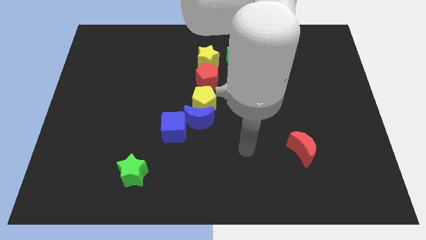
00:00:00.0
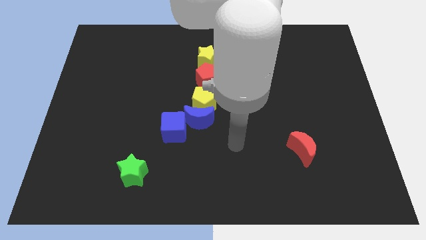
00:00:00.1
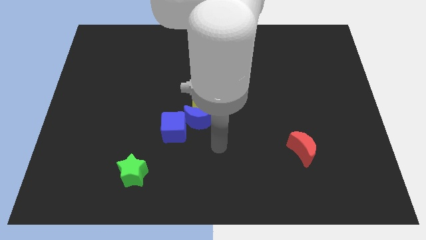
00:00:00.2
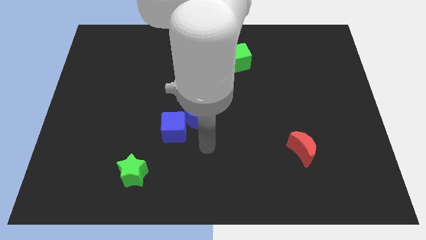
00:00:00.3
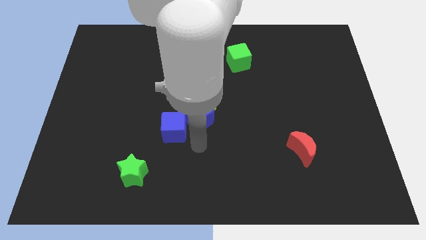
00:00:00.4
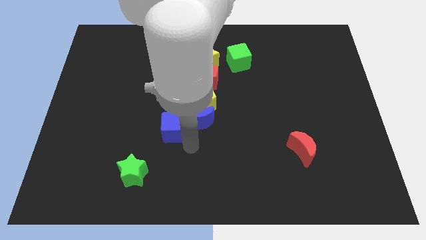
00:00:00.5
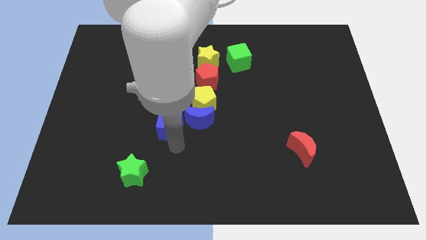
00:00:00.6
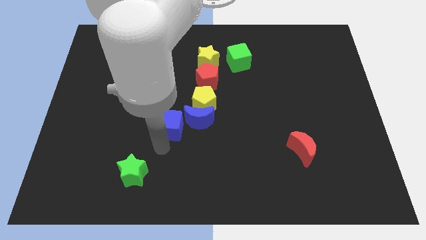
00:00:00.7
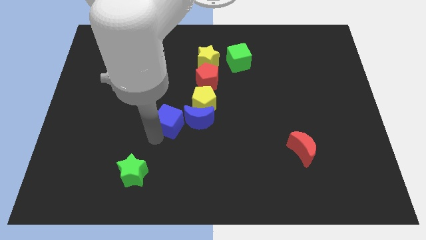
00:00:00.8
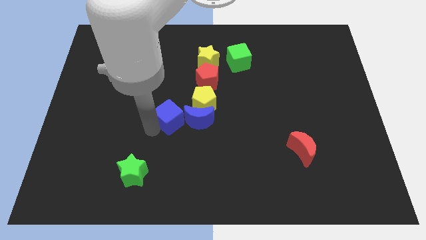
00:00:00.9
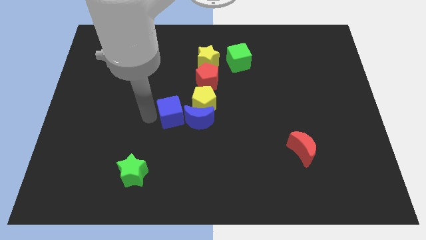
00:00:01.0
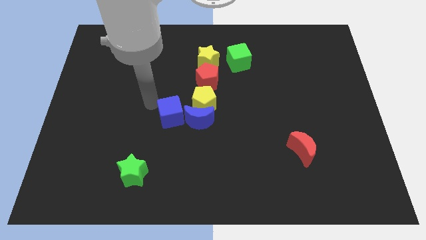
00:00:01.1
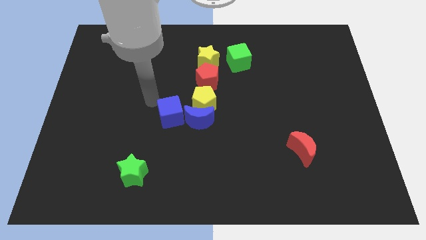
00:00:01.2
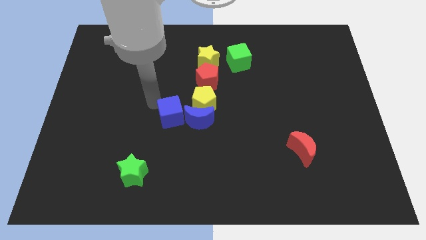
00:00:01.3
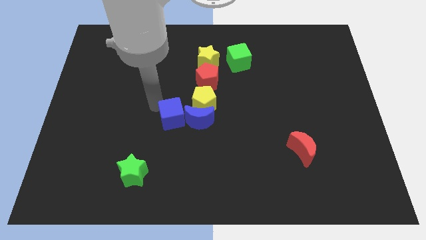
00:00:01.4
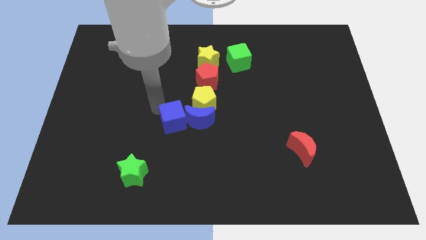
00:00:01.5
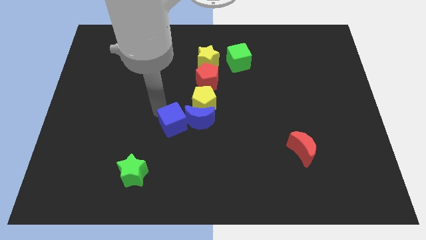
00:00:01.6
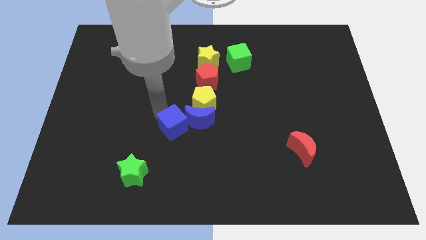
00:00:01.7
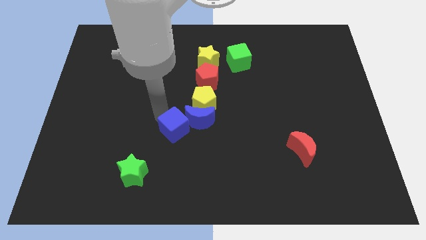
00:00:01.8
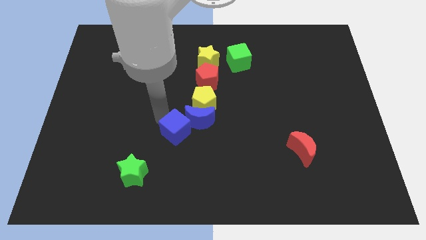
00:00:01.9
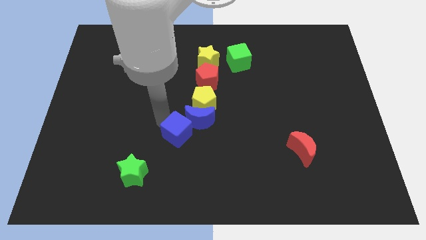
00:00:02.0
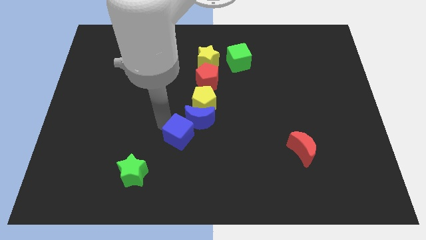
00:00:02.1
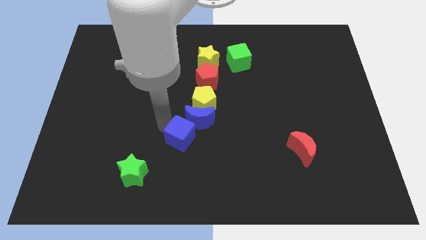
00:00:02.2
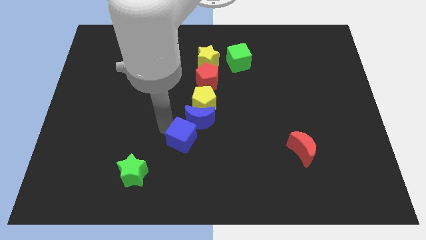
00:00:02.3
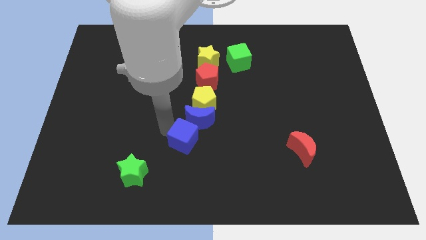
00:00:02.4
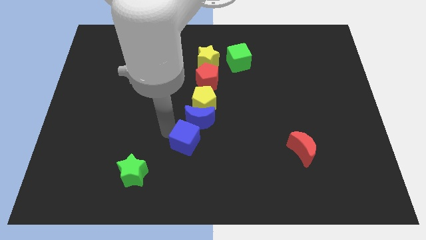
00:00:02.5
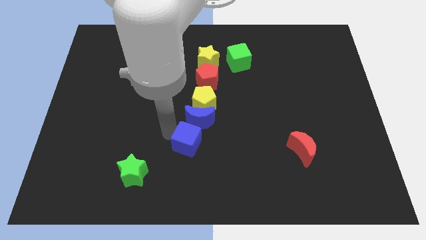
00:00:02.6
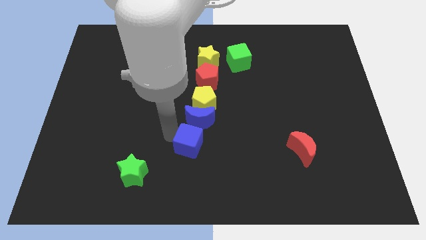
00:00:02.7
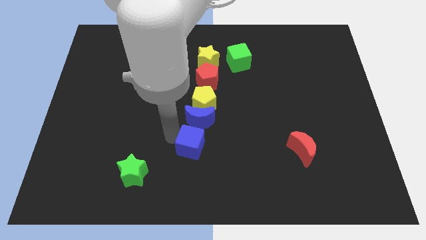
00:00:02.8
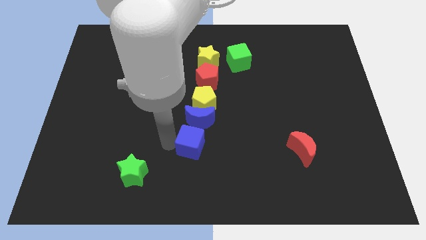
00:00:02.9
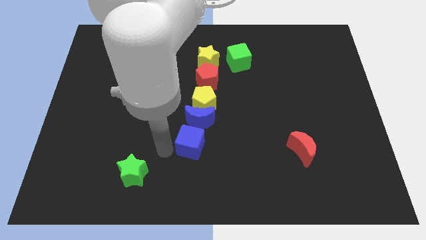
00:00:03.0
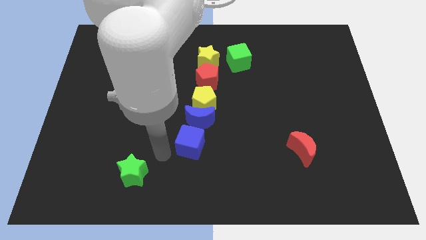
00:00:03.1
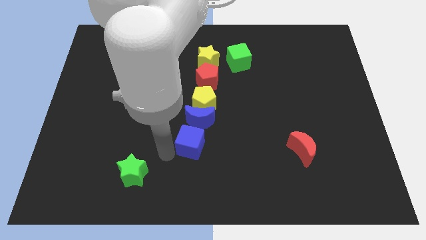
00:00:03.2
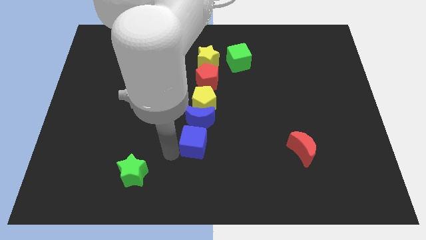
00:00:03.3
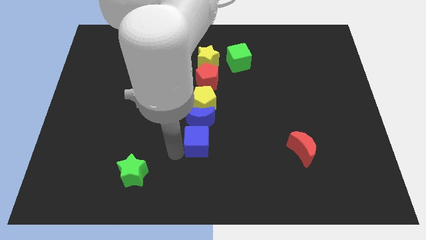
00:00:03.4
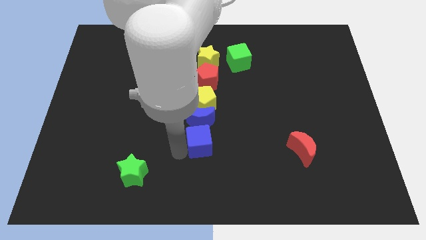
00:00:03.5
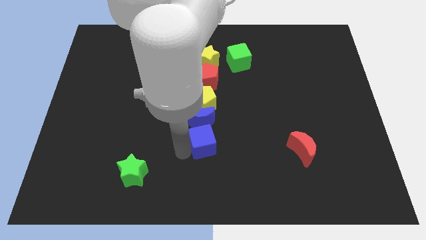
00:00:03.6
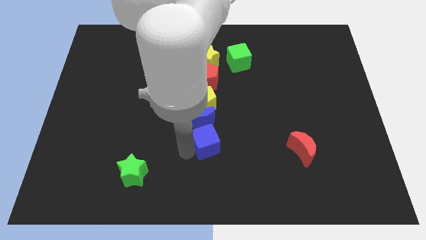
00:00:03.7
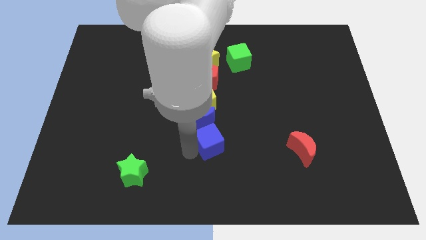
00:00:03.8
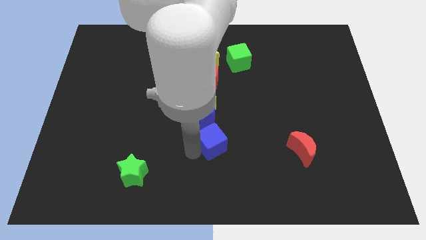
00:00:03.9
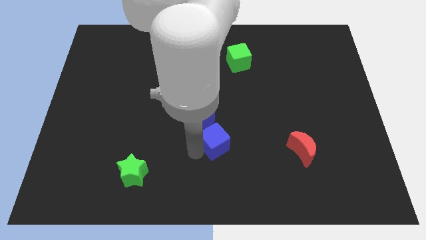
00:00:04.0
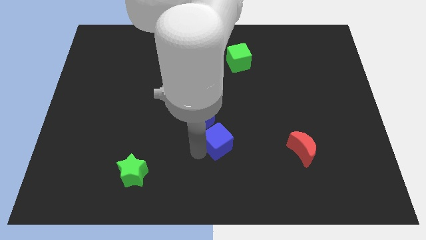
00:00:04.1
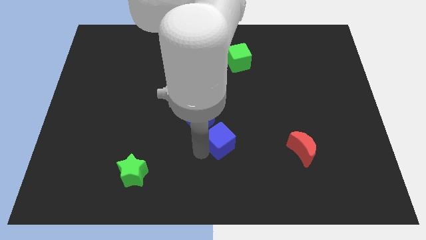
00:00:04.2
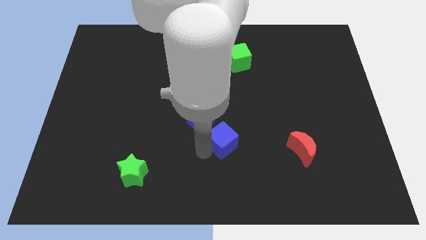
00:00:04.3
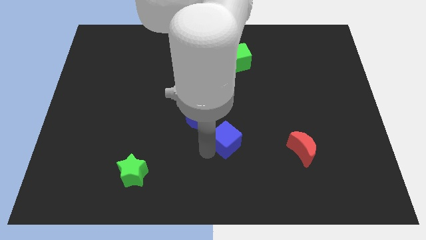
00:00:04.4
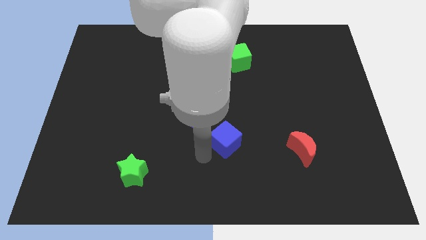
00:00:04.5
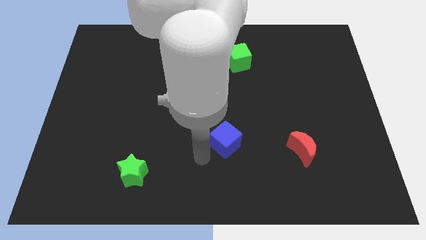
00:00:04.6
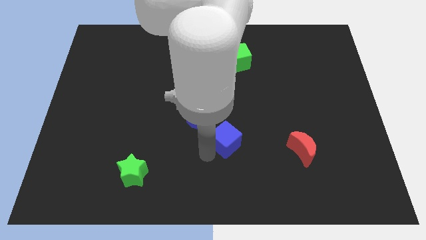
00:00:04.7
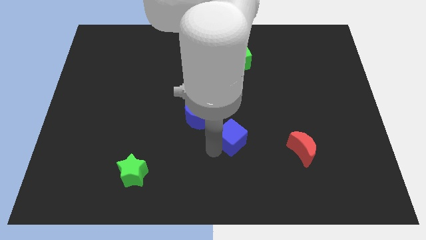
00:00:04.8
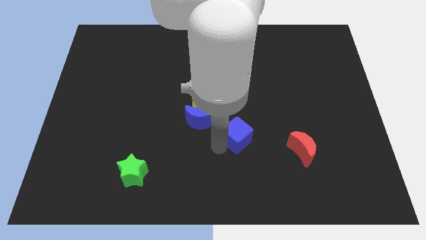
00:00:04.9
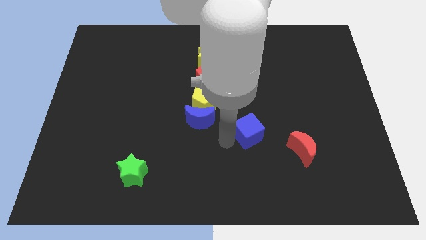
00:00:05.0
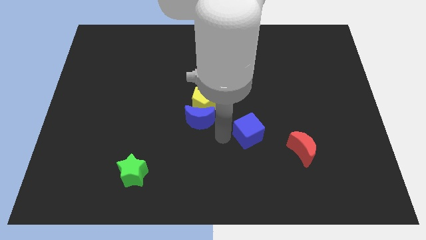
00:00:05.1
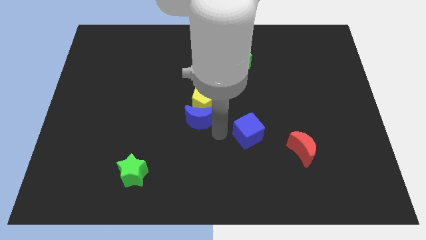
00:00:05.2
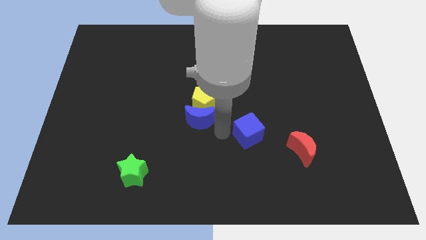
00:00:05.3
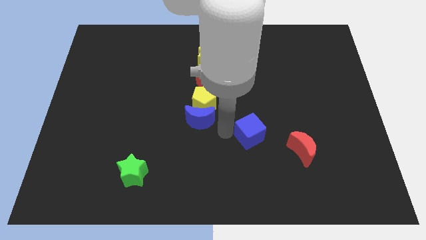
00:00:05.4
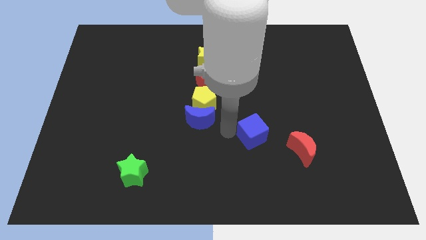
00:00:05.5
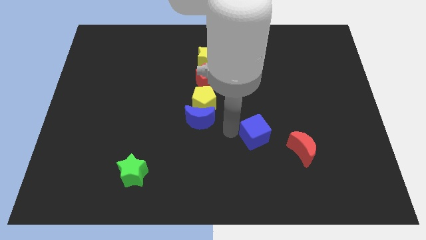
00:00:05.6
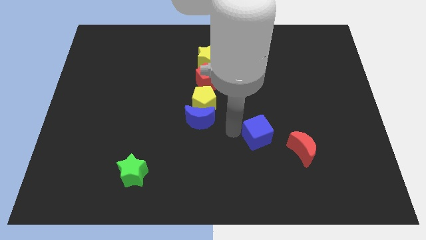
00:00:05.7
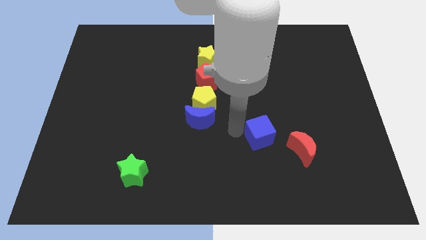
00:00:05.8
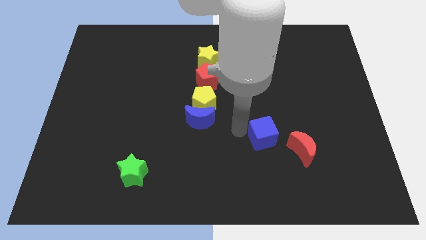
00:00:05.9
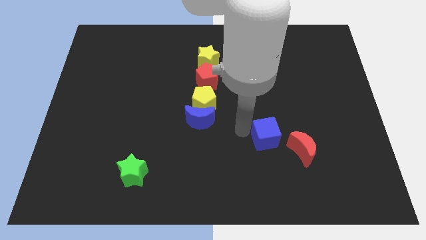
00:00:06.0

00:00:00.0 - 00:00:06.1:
slide the blue cube right

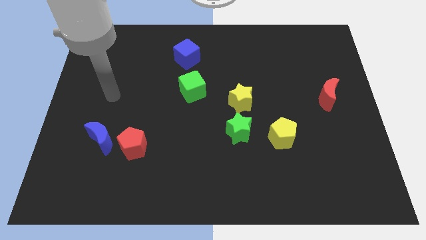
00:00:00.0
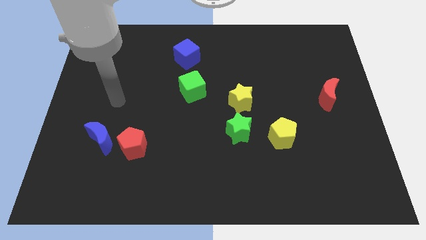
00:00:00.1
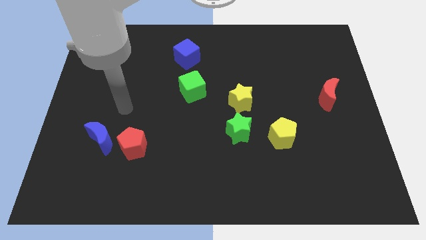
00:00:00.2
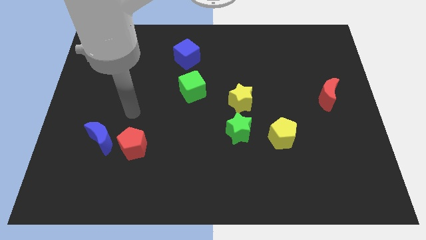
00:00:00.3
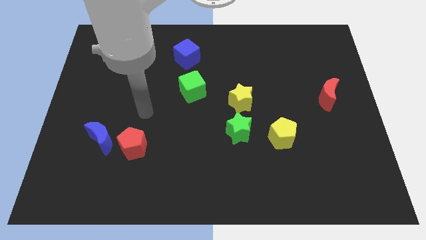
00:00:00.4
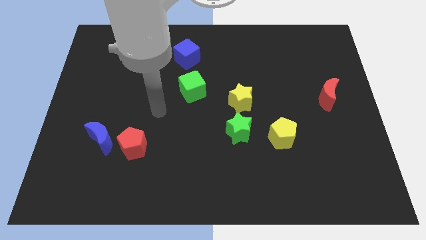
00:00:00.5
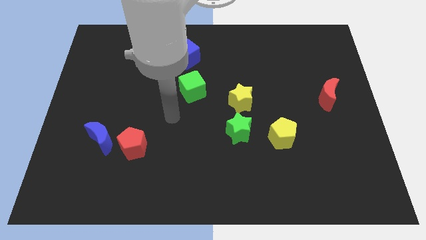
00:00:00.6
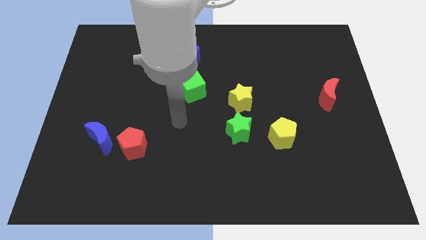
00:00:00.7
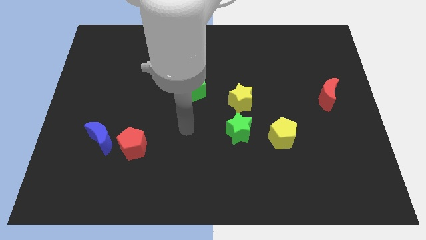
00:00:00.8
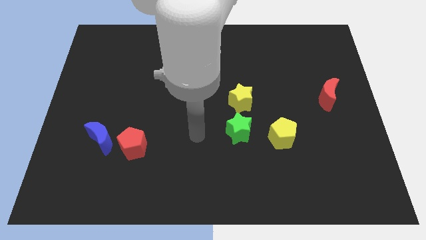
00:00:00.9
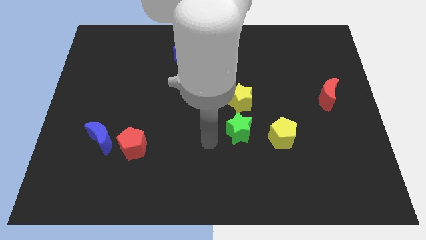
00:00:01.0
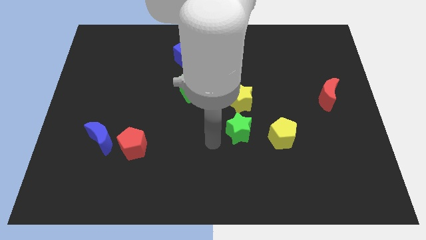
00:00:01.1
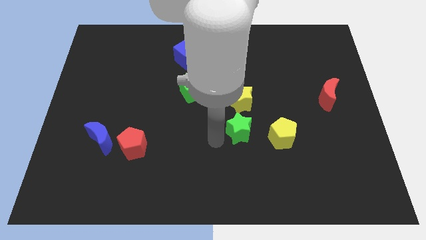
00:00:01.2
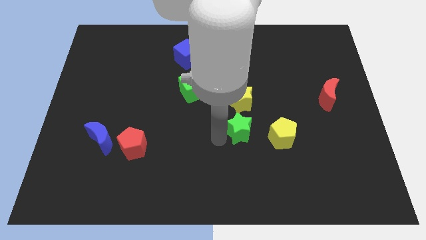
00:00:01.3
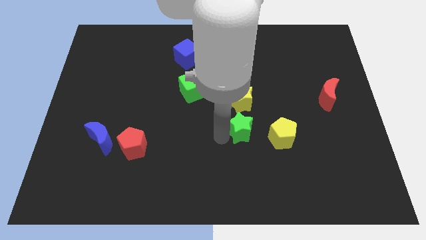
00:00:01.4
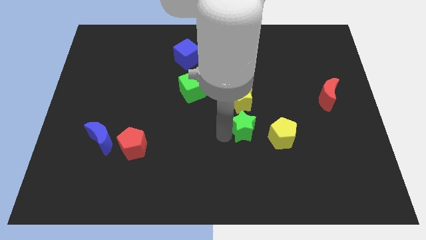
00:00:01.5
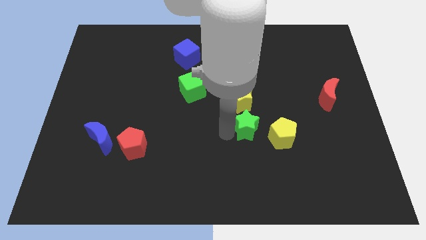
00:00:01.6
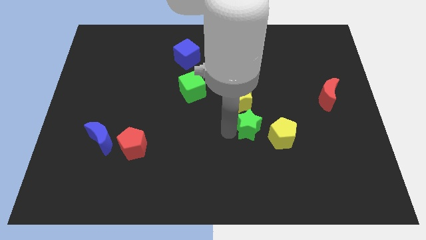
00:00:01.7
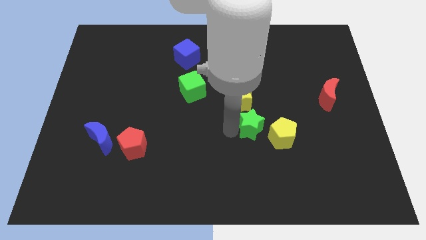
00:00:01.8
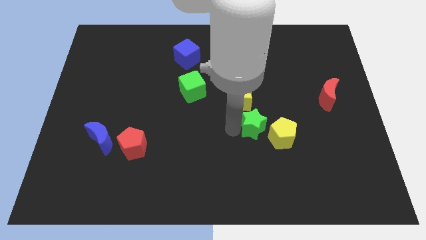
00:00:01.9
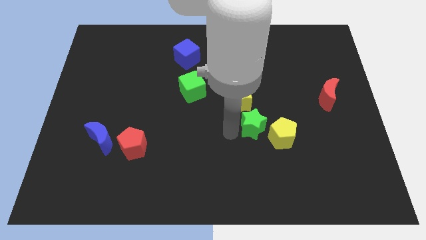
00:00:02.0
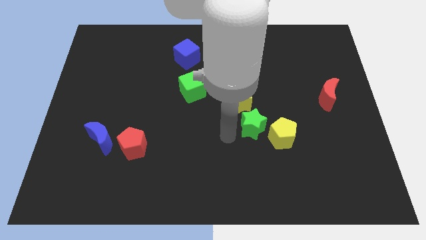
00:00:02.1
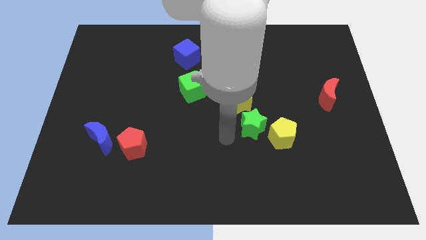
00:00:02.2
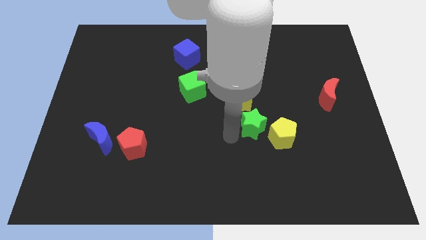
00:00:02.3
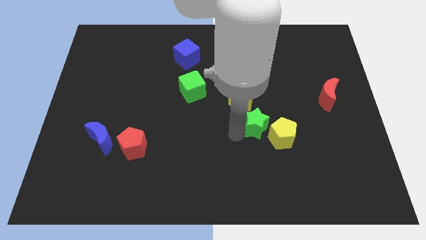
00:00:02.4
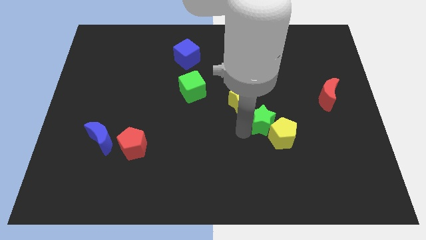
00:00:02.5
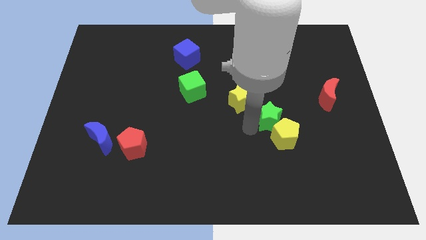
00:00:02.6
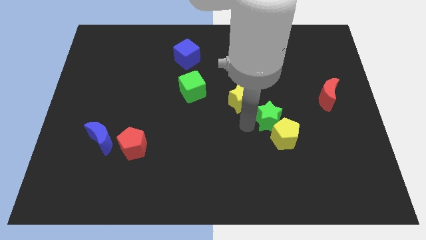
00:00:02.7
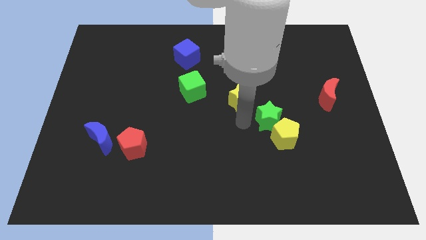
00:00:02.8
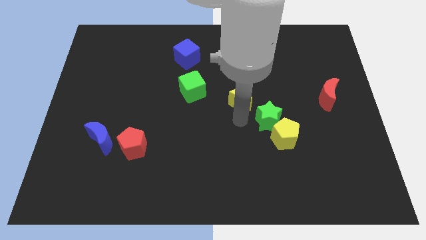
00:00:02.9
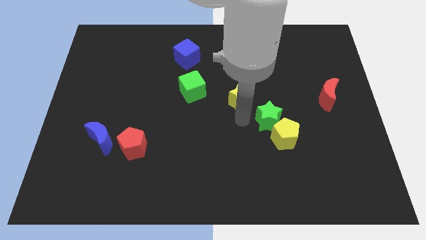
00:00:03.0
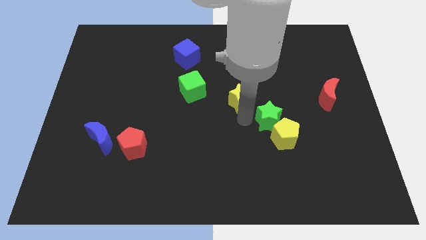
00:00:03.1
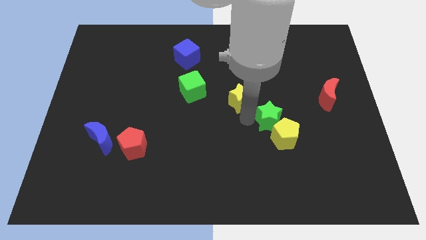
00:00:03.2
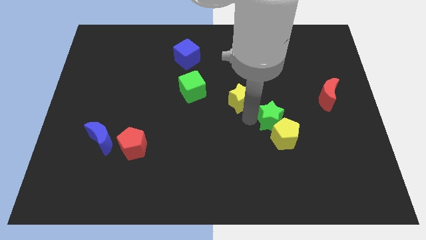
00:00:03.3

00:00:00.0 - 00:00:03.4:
move the green star to the right a bit
